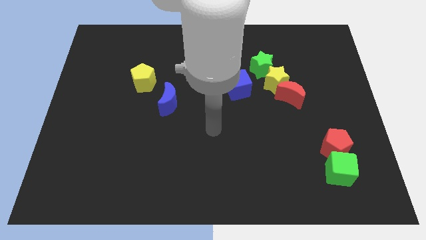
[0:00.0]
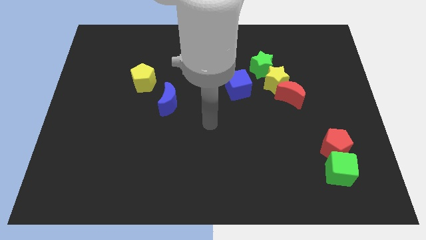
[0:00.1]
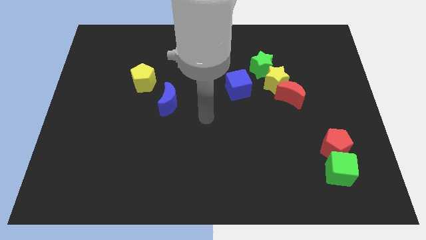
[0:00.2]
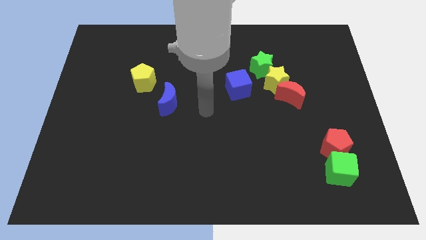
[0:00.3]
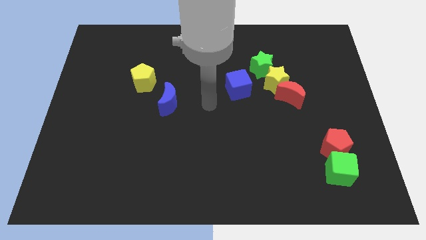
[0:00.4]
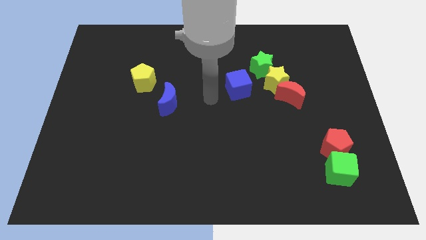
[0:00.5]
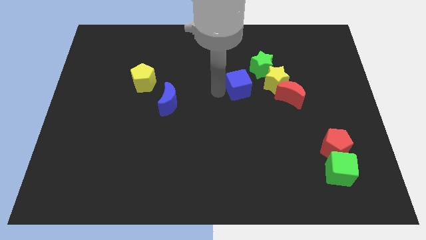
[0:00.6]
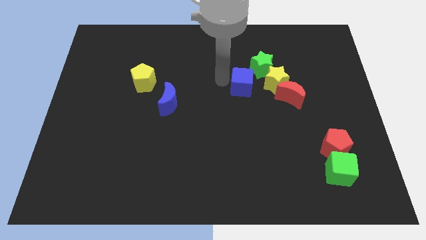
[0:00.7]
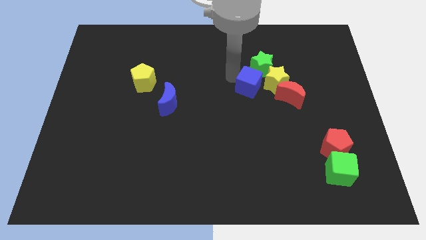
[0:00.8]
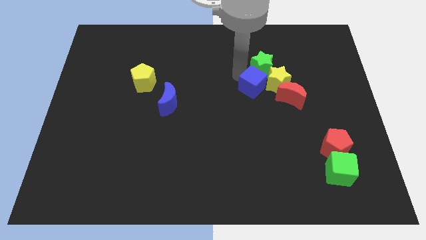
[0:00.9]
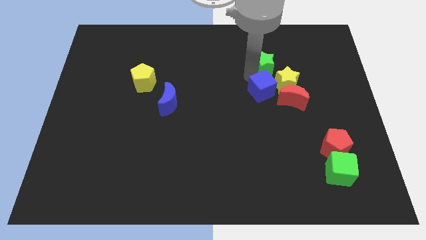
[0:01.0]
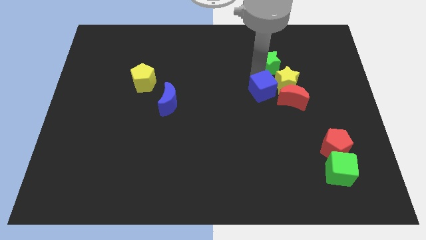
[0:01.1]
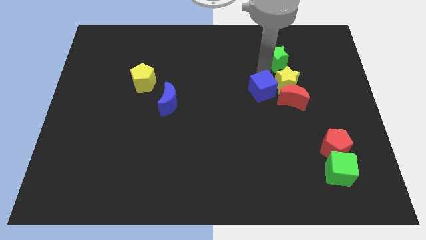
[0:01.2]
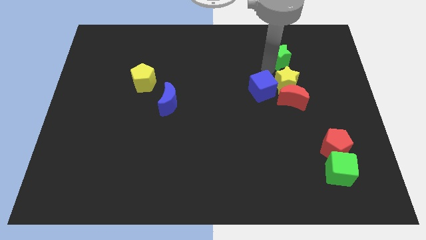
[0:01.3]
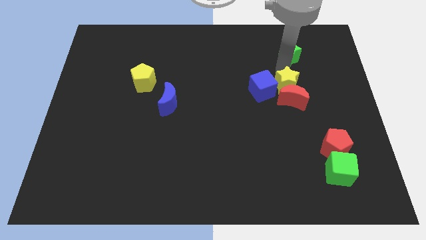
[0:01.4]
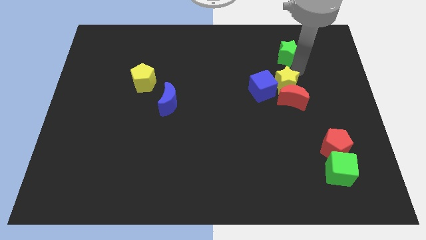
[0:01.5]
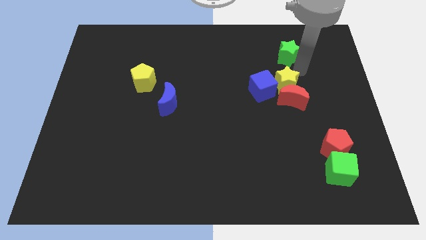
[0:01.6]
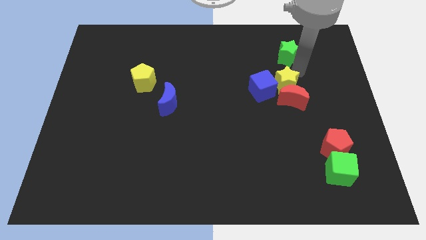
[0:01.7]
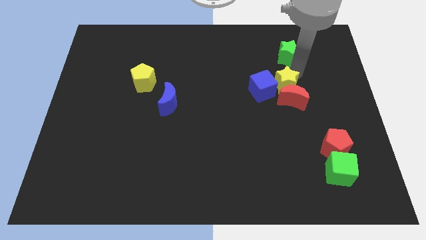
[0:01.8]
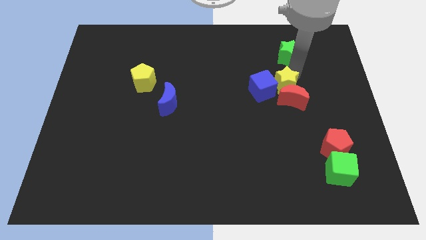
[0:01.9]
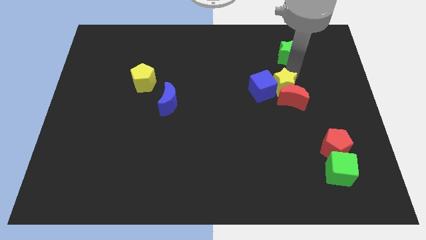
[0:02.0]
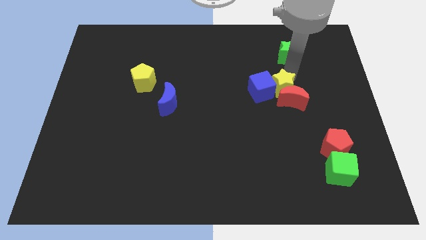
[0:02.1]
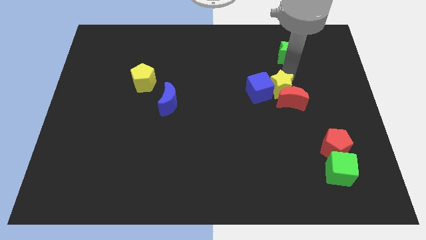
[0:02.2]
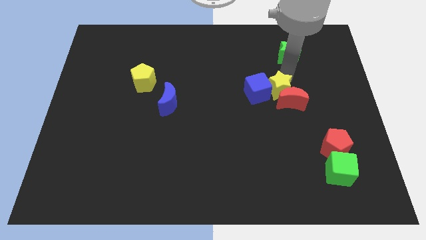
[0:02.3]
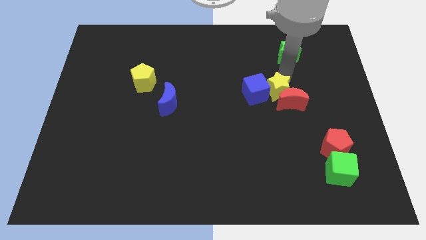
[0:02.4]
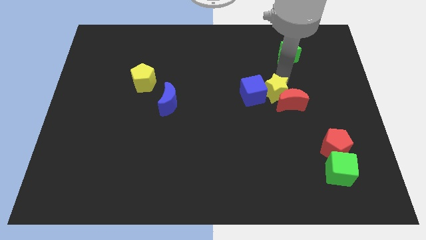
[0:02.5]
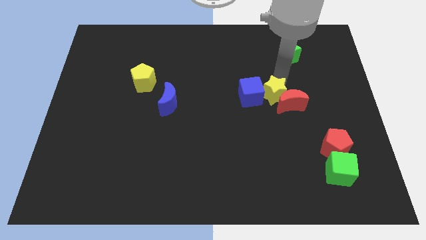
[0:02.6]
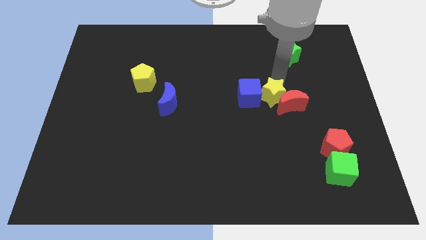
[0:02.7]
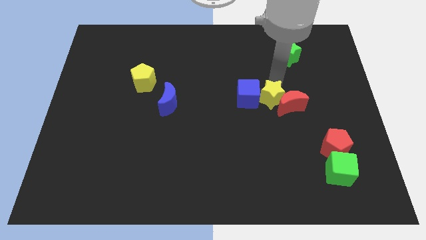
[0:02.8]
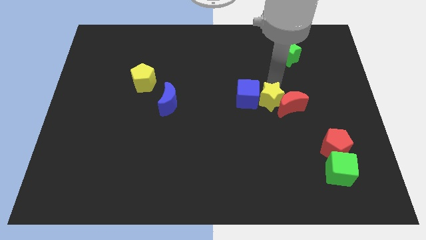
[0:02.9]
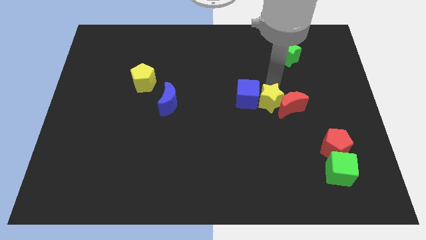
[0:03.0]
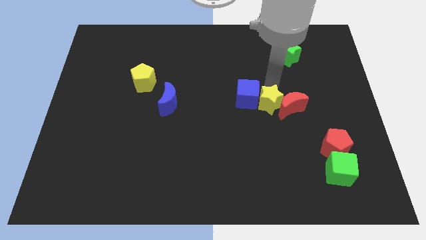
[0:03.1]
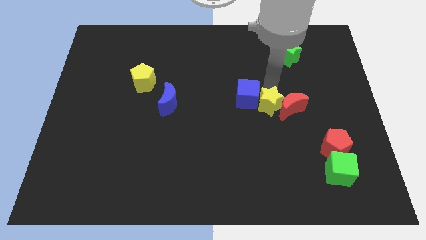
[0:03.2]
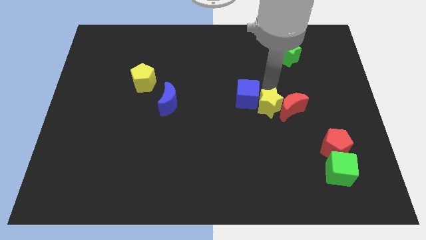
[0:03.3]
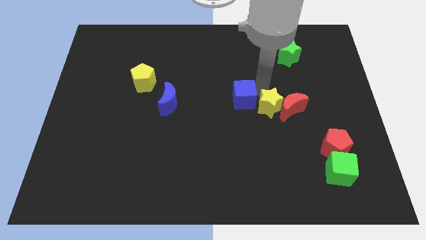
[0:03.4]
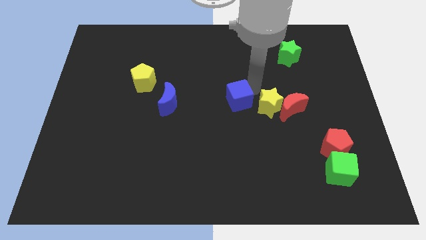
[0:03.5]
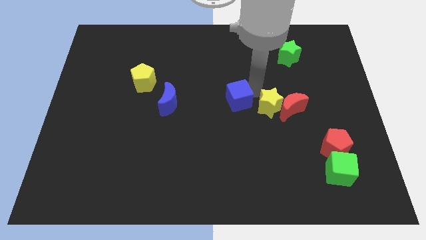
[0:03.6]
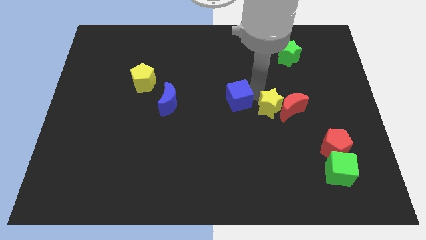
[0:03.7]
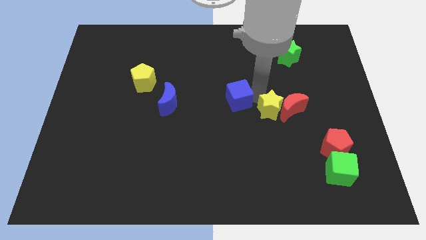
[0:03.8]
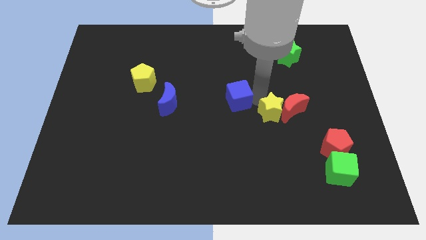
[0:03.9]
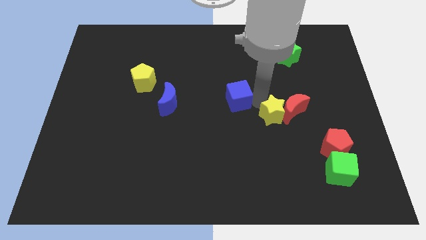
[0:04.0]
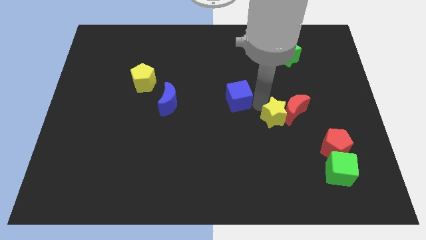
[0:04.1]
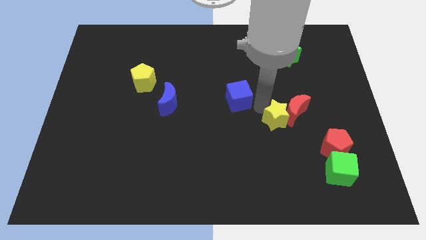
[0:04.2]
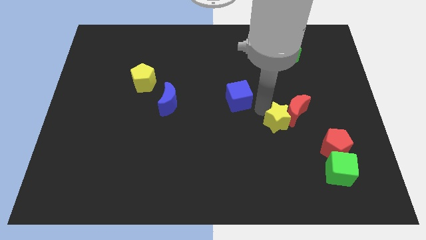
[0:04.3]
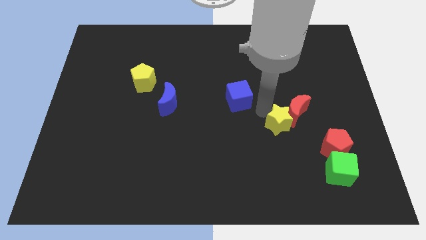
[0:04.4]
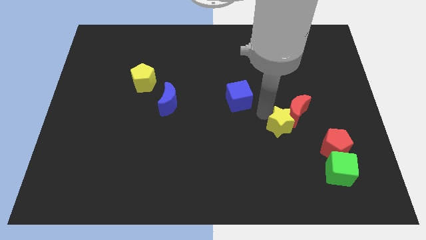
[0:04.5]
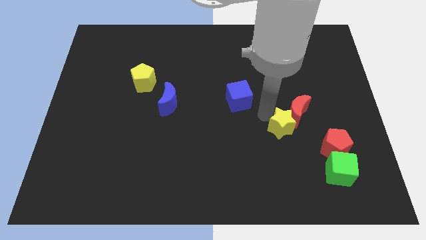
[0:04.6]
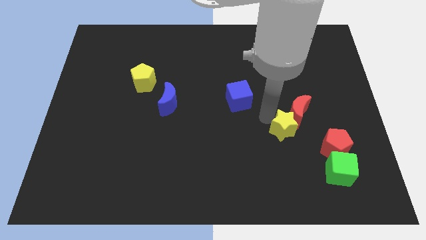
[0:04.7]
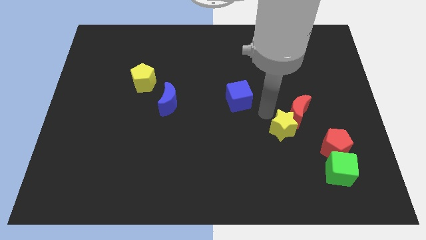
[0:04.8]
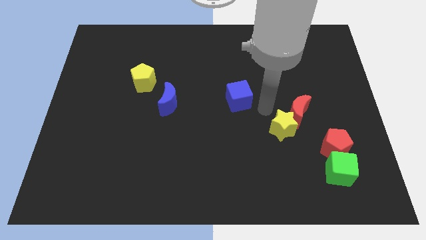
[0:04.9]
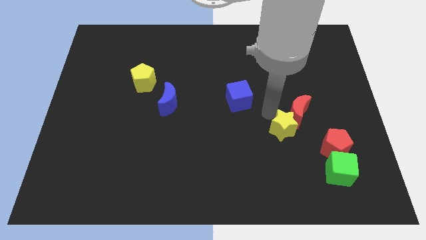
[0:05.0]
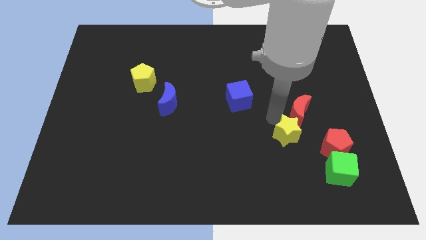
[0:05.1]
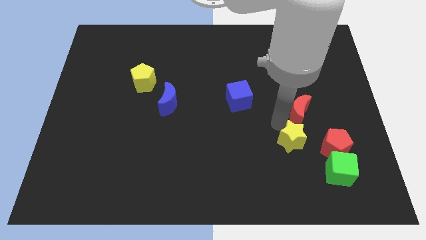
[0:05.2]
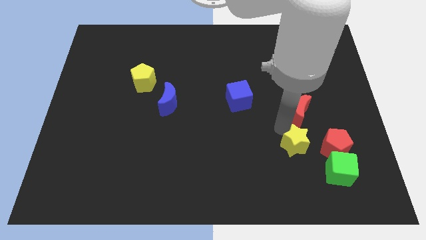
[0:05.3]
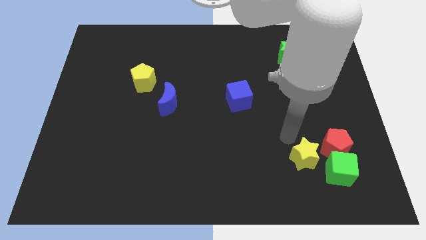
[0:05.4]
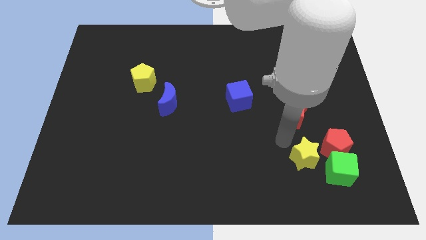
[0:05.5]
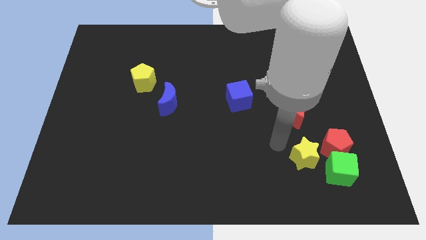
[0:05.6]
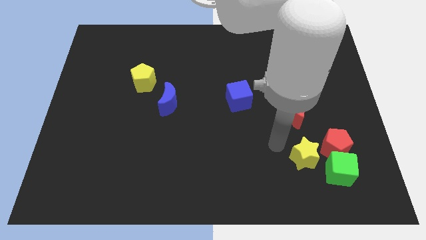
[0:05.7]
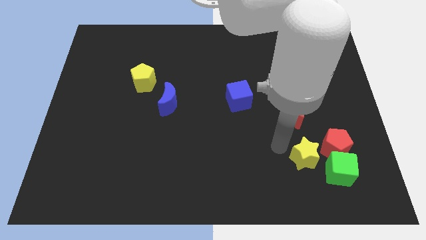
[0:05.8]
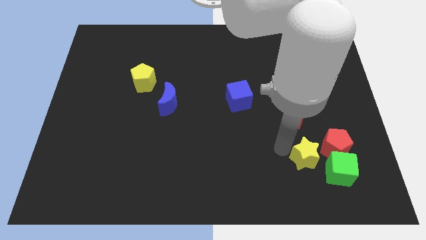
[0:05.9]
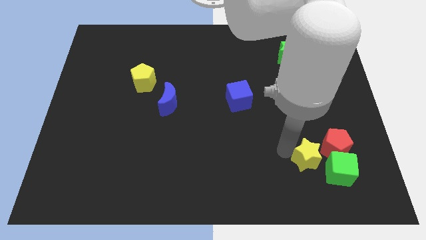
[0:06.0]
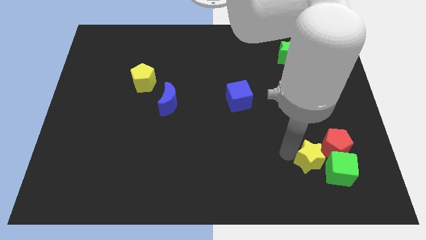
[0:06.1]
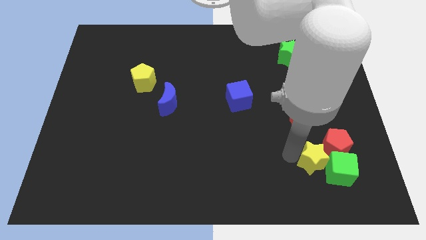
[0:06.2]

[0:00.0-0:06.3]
push the yellow star next to the green cube
